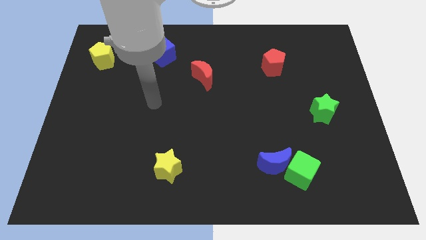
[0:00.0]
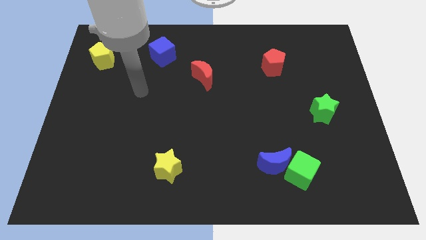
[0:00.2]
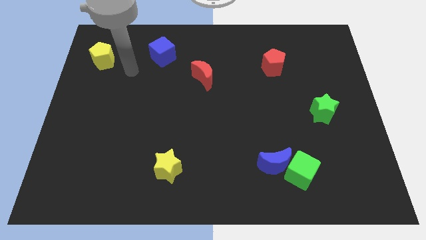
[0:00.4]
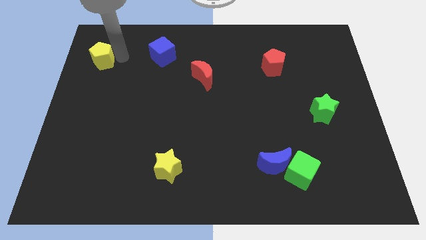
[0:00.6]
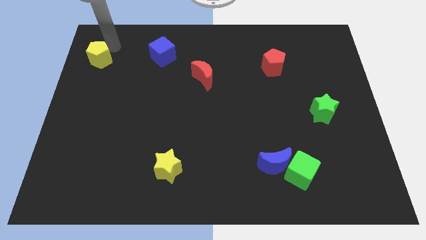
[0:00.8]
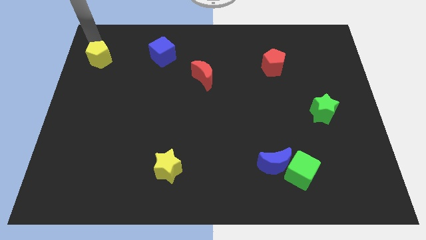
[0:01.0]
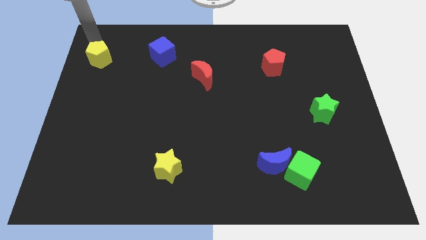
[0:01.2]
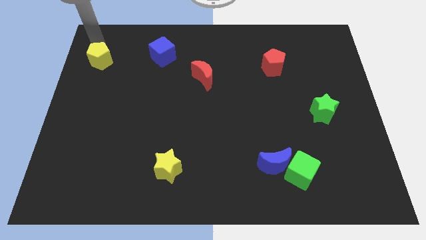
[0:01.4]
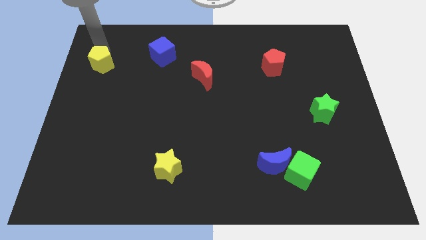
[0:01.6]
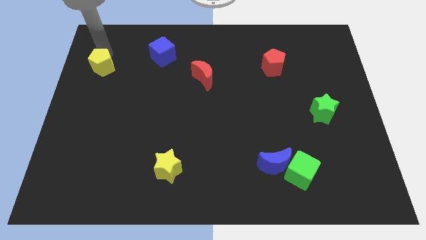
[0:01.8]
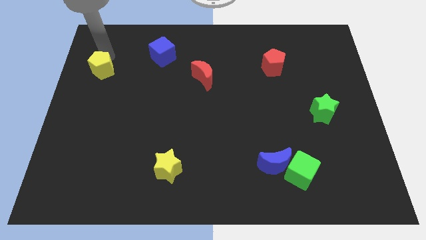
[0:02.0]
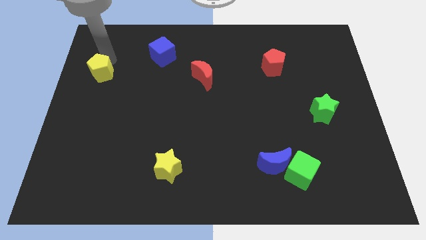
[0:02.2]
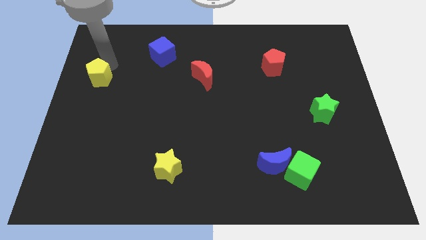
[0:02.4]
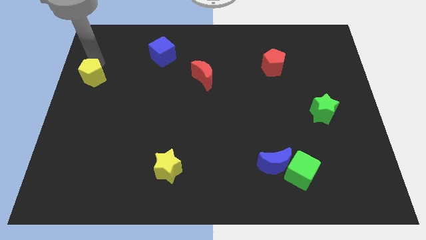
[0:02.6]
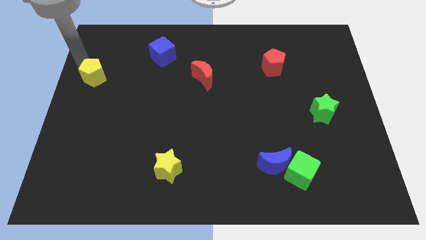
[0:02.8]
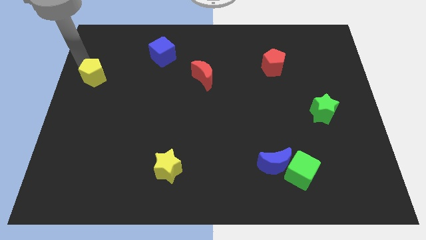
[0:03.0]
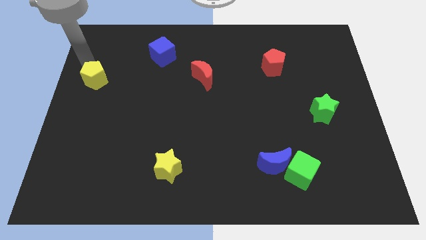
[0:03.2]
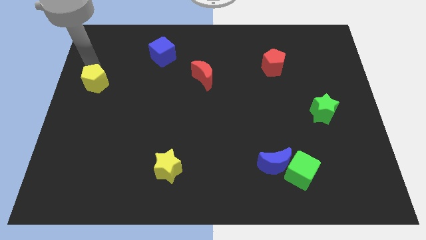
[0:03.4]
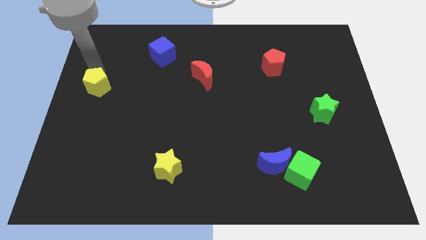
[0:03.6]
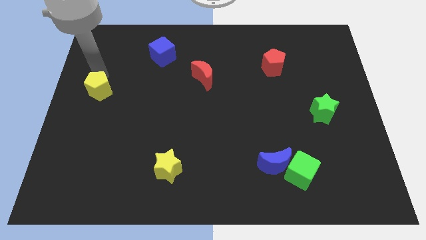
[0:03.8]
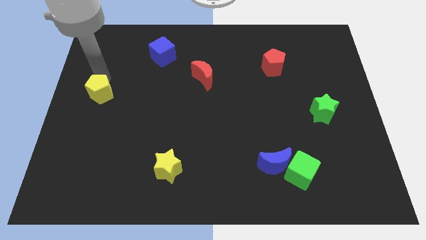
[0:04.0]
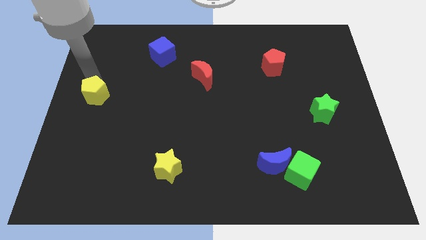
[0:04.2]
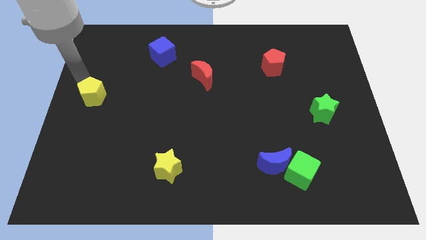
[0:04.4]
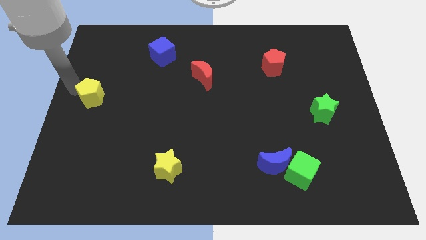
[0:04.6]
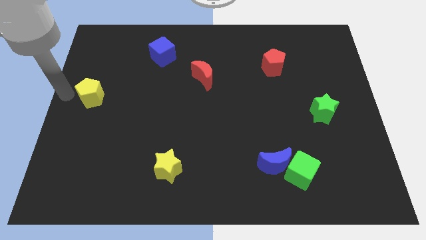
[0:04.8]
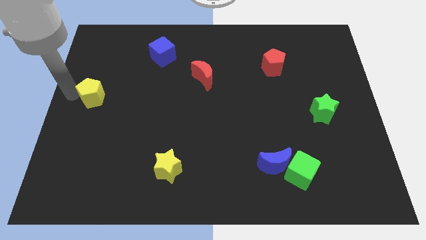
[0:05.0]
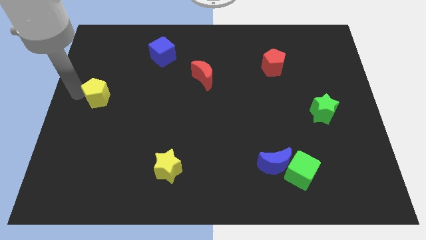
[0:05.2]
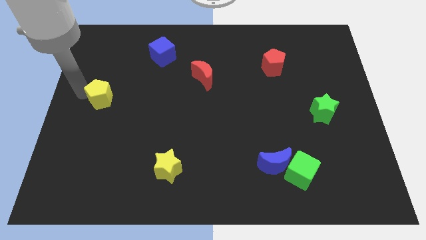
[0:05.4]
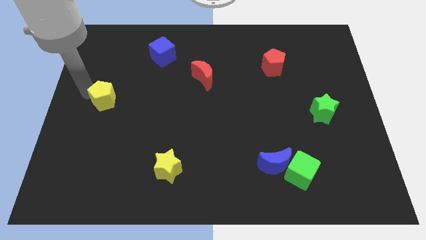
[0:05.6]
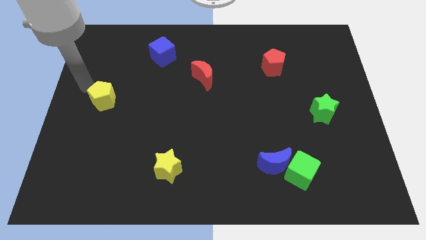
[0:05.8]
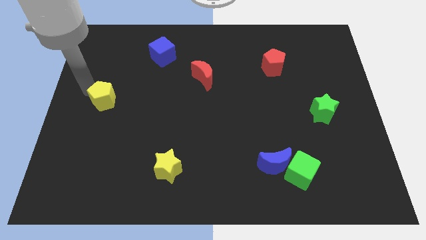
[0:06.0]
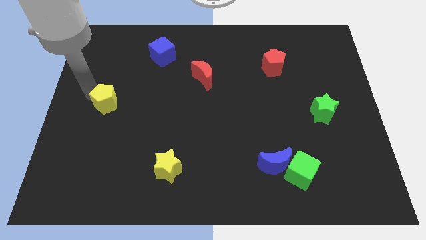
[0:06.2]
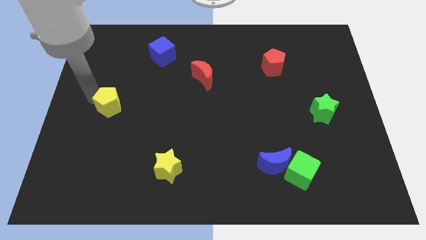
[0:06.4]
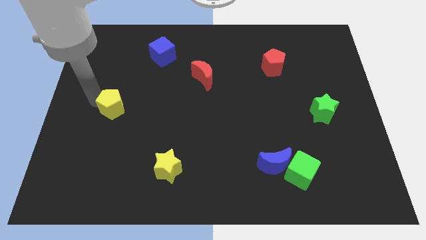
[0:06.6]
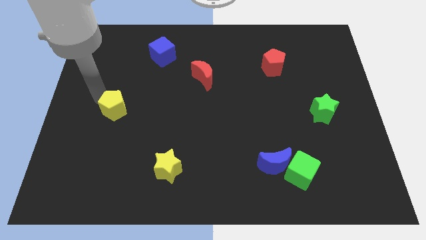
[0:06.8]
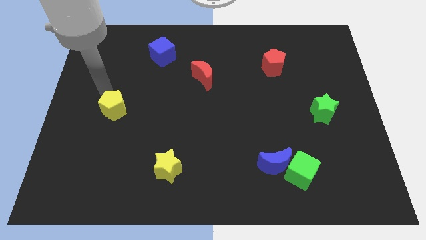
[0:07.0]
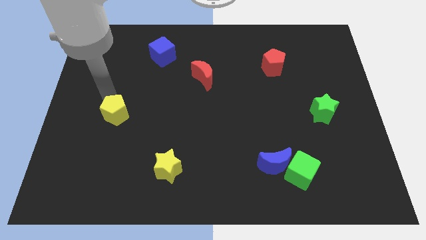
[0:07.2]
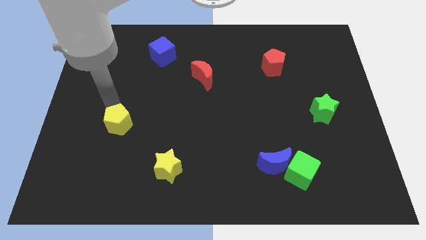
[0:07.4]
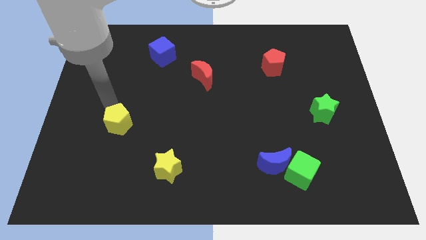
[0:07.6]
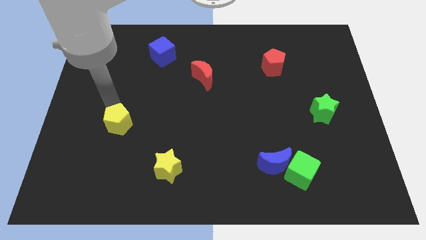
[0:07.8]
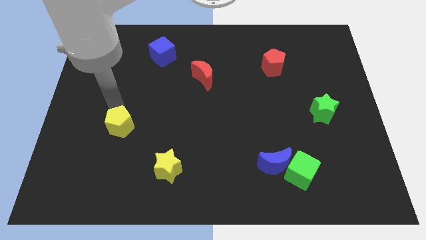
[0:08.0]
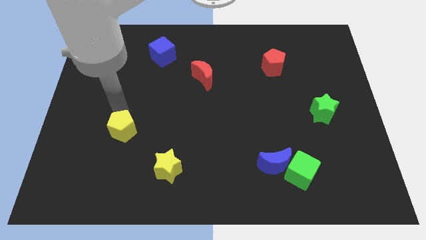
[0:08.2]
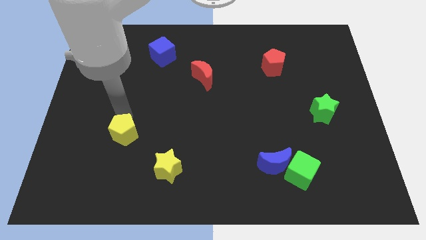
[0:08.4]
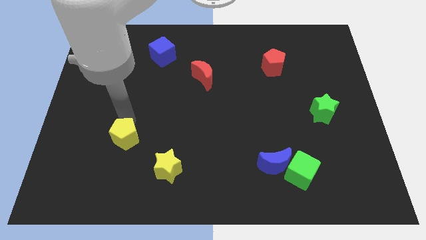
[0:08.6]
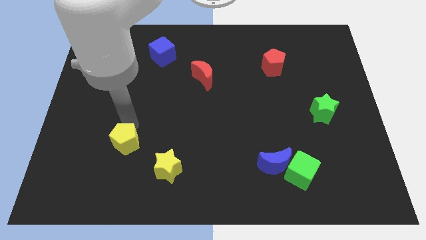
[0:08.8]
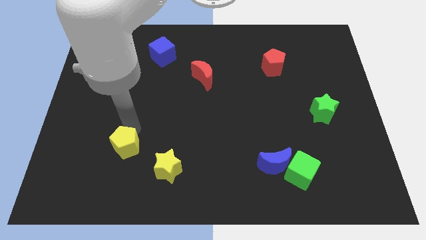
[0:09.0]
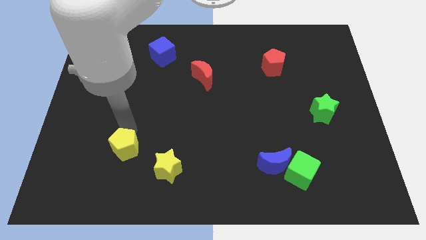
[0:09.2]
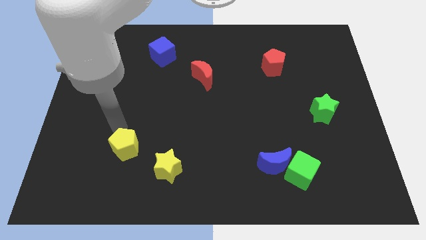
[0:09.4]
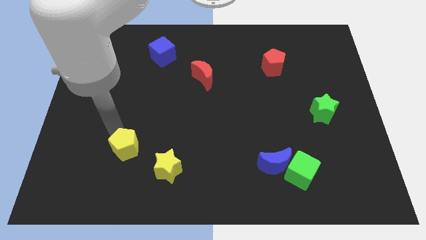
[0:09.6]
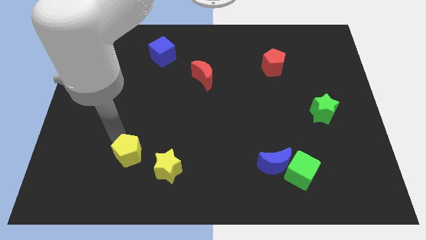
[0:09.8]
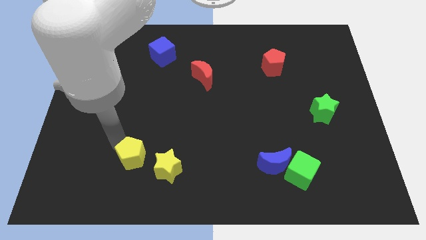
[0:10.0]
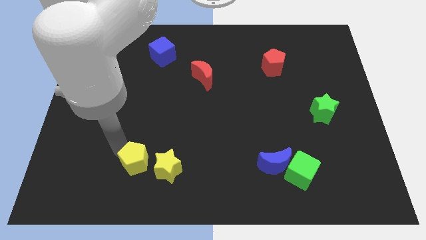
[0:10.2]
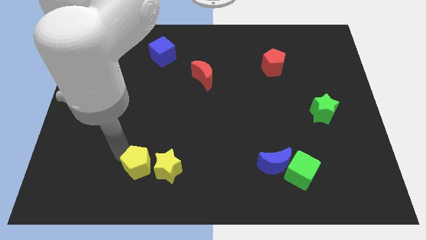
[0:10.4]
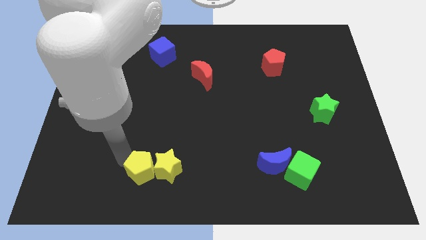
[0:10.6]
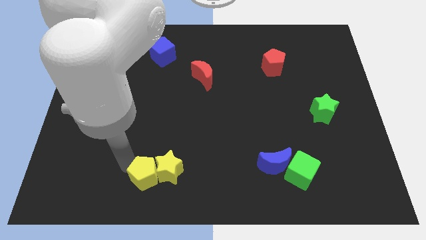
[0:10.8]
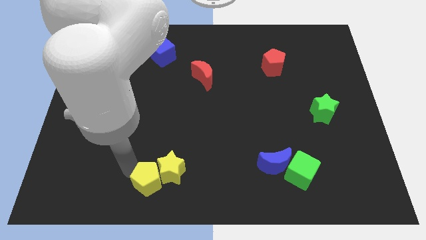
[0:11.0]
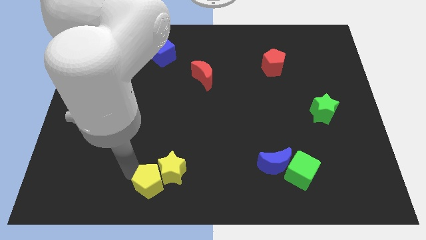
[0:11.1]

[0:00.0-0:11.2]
slide the yellow pentagon to the bottom side

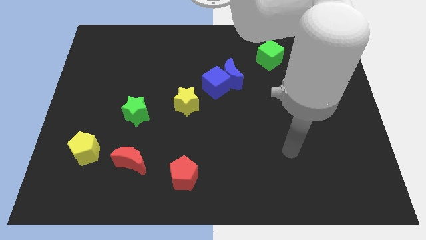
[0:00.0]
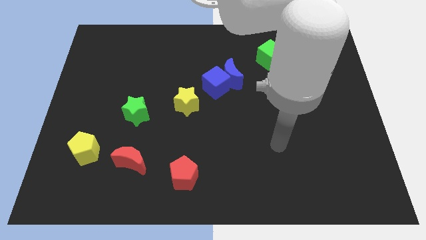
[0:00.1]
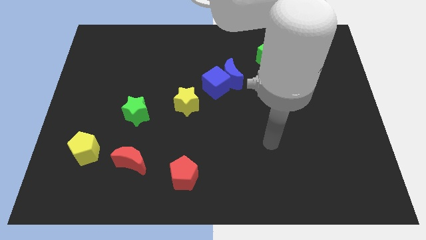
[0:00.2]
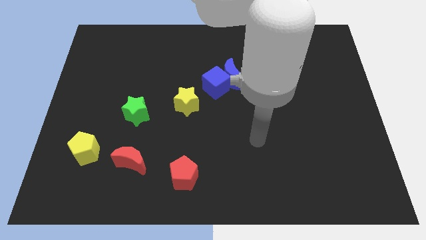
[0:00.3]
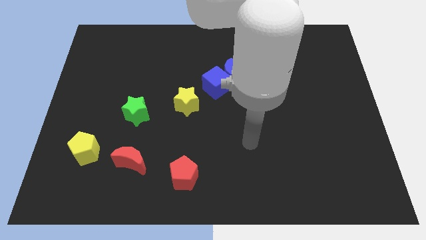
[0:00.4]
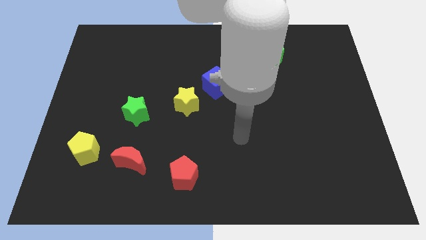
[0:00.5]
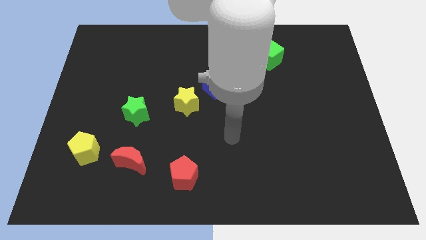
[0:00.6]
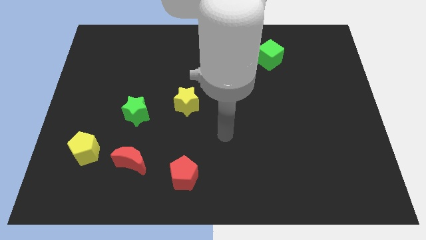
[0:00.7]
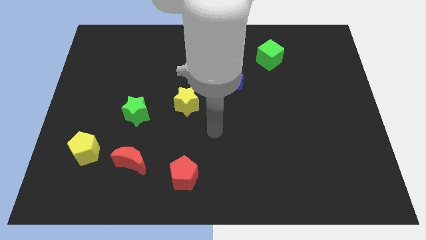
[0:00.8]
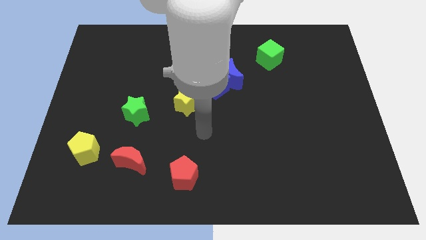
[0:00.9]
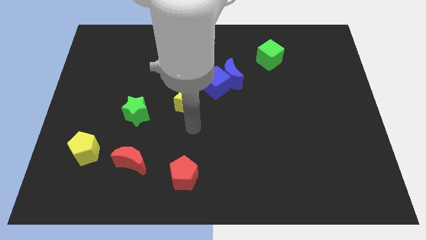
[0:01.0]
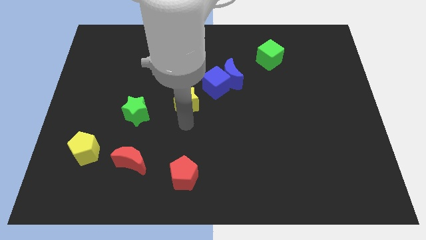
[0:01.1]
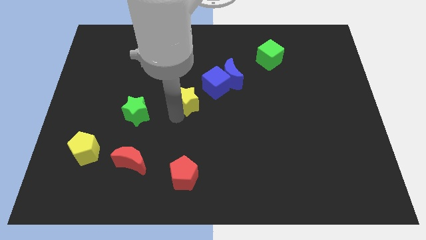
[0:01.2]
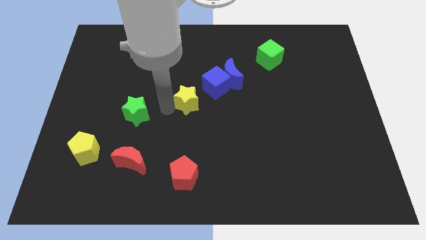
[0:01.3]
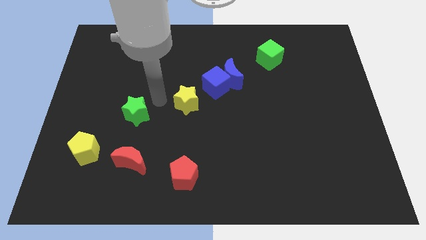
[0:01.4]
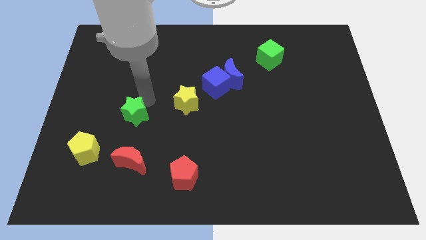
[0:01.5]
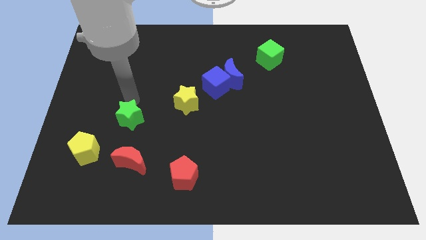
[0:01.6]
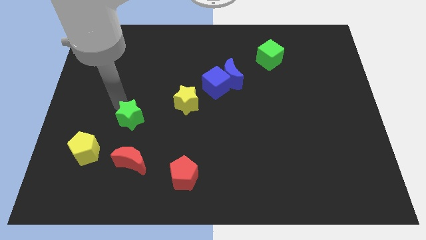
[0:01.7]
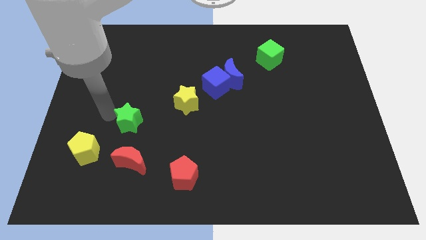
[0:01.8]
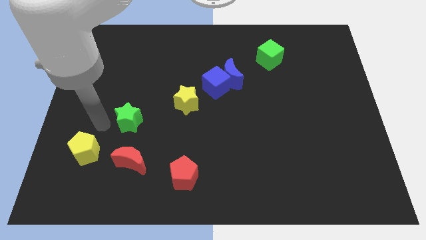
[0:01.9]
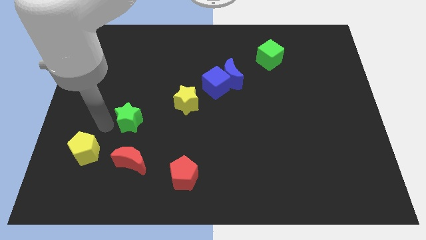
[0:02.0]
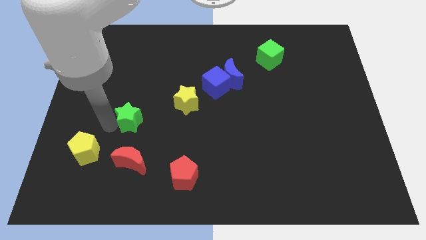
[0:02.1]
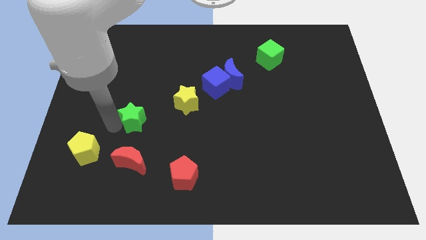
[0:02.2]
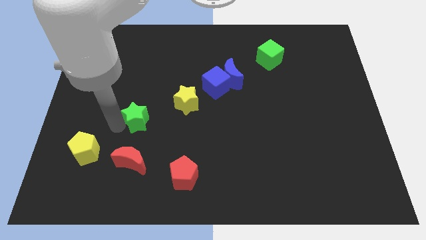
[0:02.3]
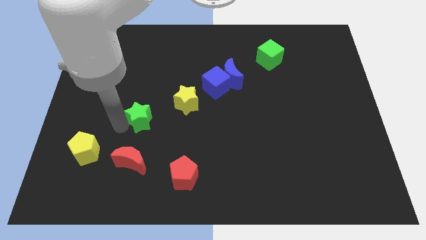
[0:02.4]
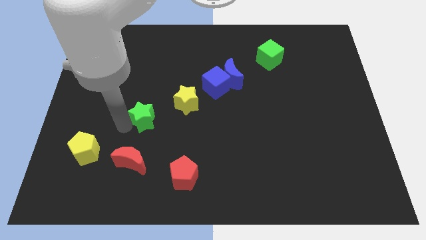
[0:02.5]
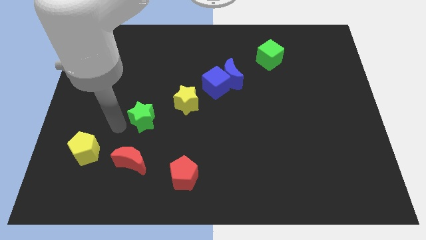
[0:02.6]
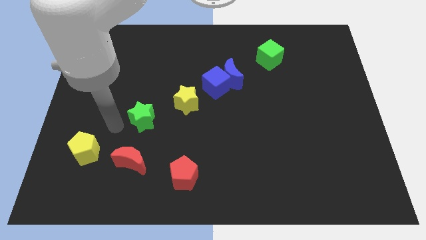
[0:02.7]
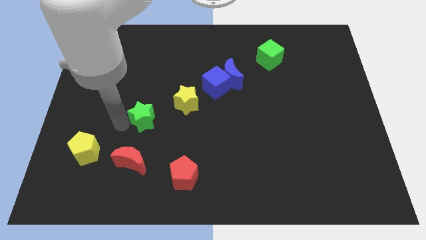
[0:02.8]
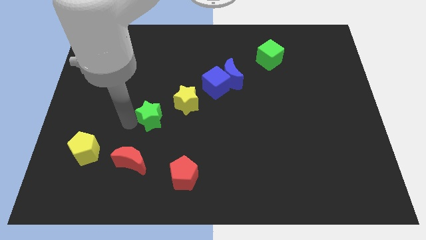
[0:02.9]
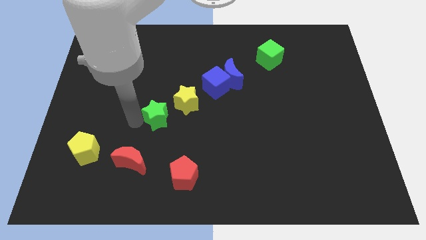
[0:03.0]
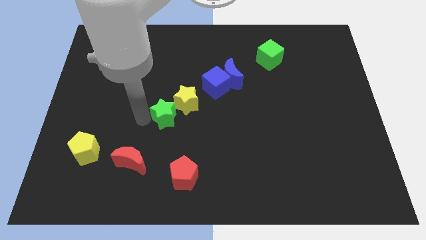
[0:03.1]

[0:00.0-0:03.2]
push the green star to the center of the board
